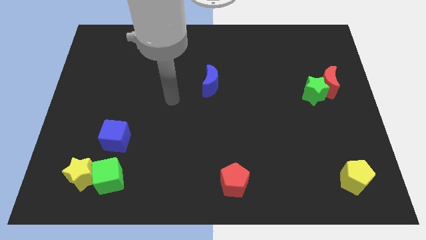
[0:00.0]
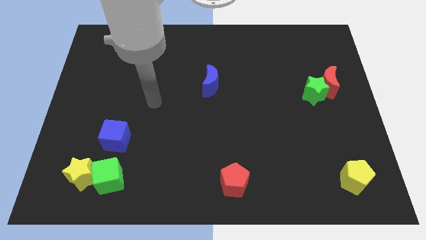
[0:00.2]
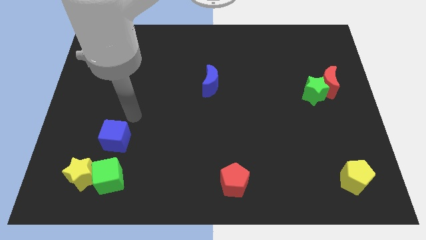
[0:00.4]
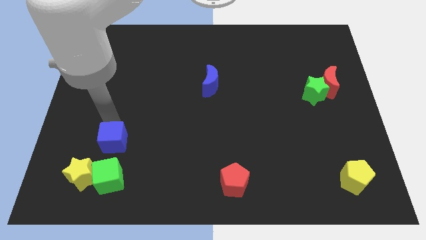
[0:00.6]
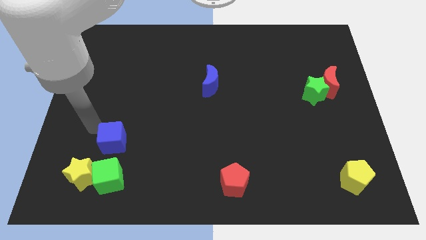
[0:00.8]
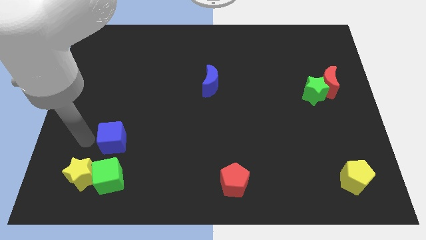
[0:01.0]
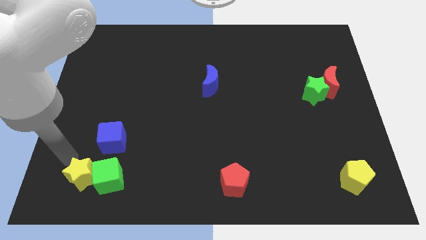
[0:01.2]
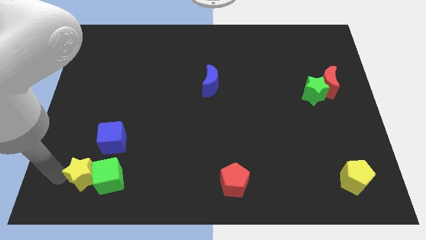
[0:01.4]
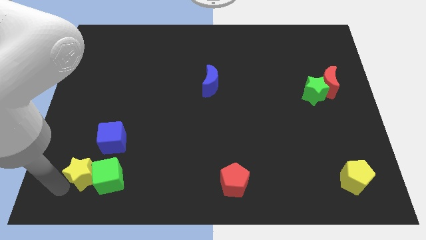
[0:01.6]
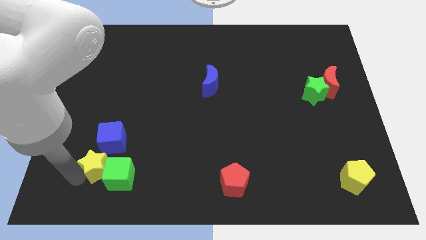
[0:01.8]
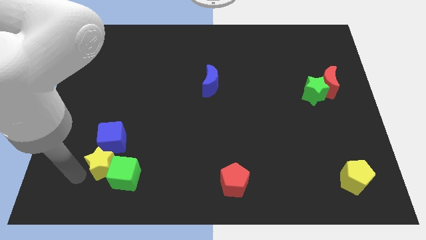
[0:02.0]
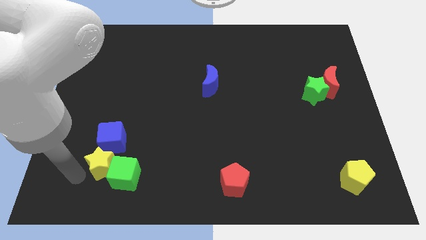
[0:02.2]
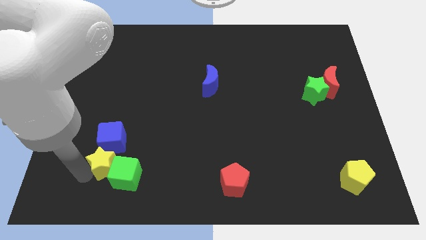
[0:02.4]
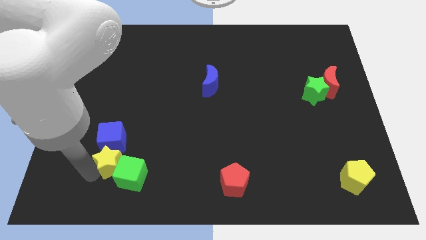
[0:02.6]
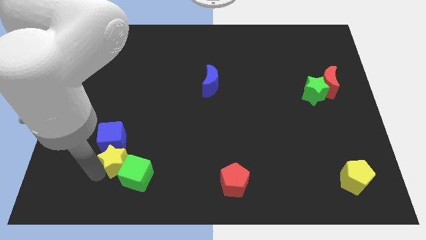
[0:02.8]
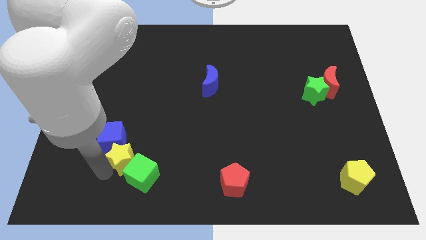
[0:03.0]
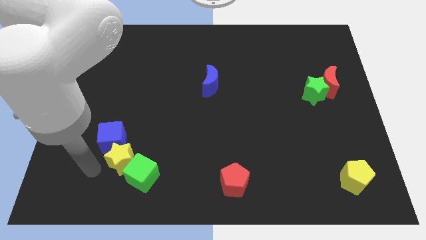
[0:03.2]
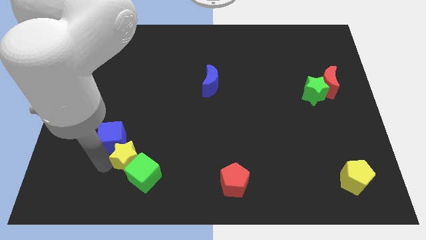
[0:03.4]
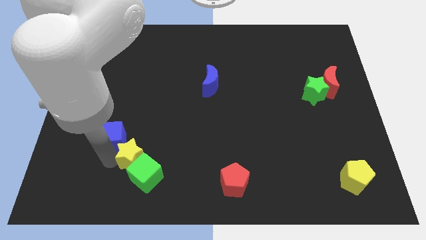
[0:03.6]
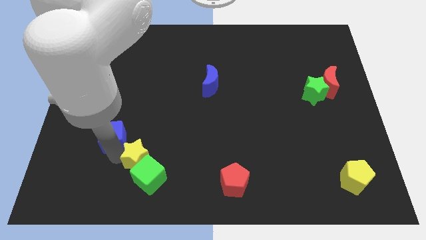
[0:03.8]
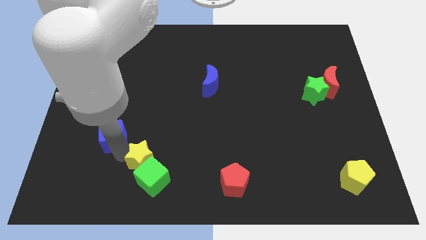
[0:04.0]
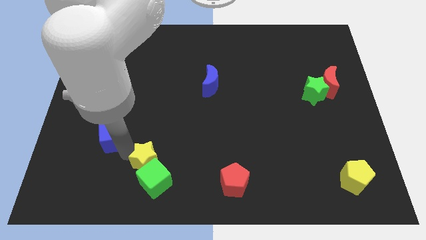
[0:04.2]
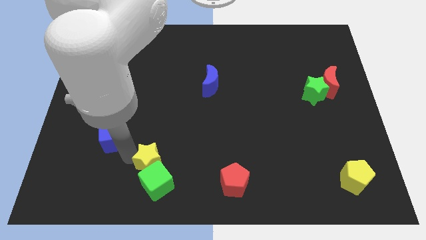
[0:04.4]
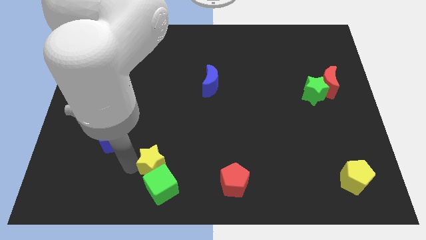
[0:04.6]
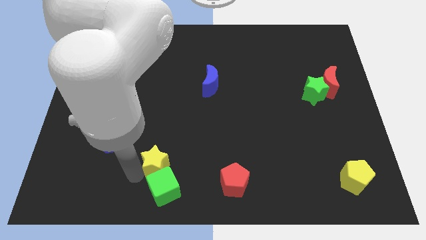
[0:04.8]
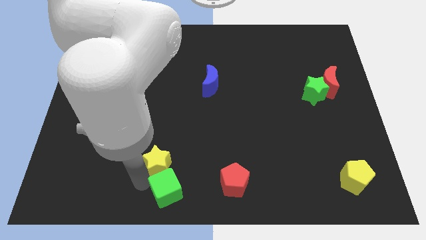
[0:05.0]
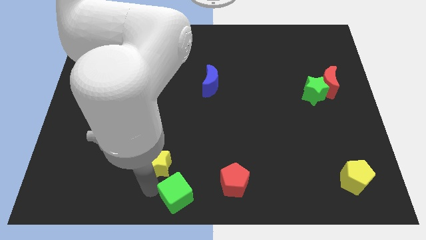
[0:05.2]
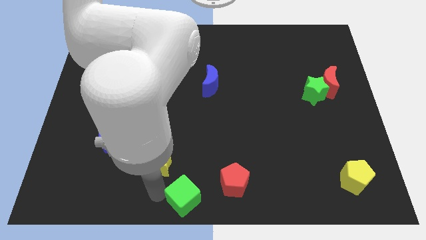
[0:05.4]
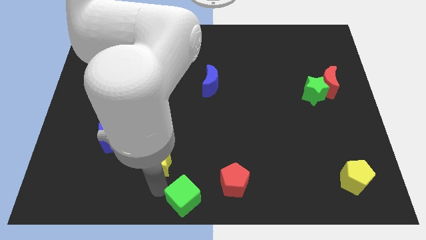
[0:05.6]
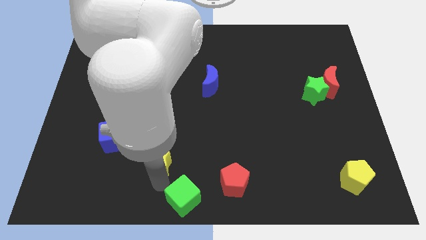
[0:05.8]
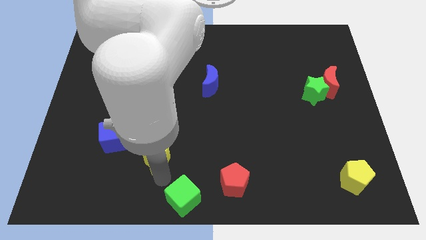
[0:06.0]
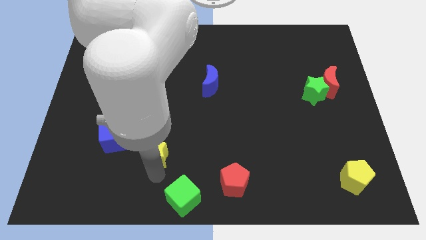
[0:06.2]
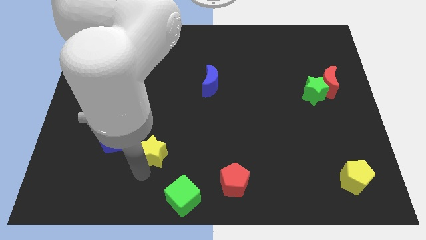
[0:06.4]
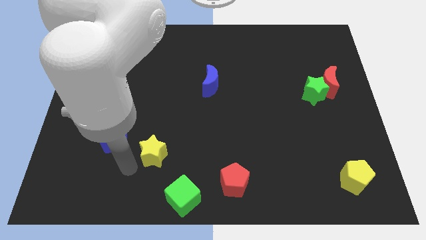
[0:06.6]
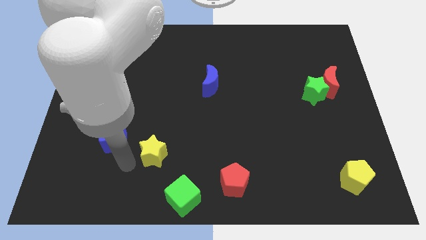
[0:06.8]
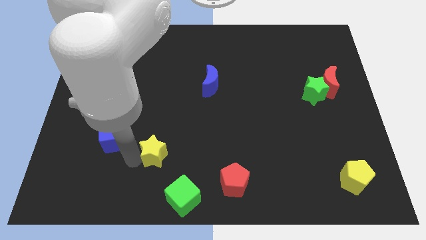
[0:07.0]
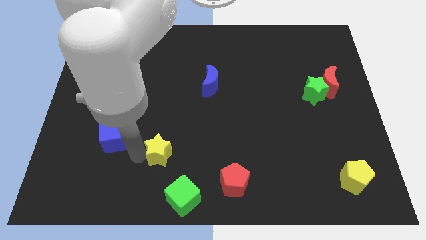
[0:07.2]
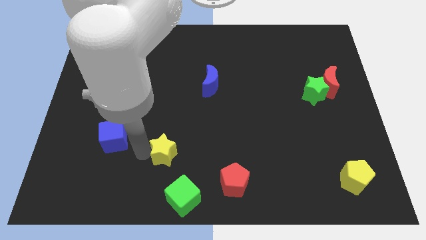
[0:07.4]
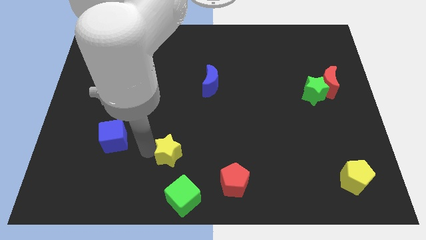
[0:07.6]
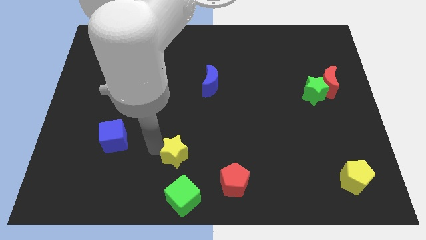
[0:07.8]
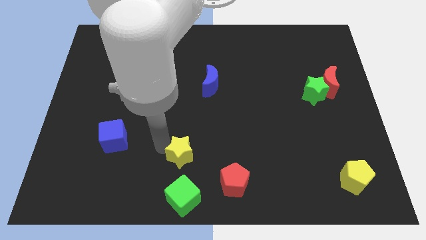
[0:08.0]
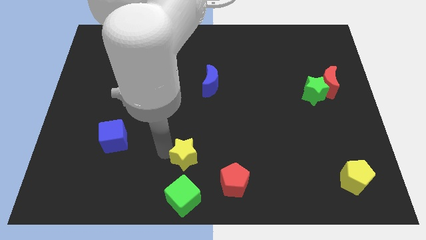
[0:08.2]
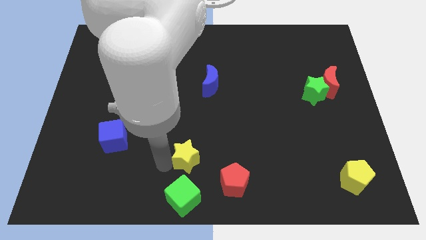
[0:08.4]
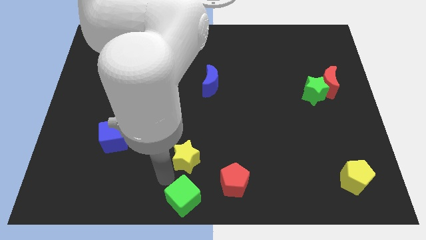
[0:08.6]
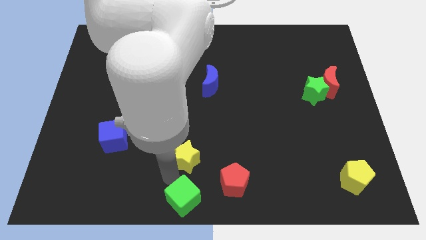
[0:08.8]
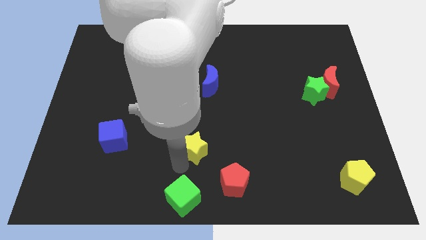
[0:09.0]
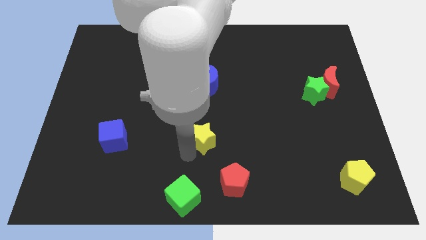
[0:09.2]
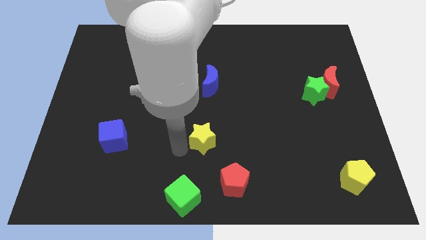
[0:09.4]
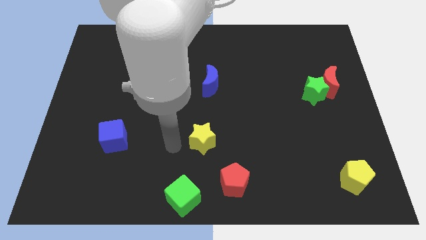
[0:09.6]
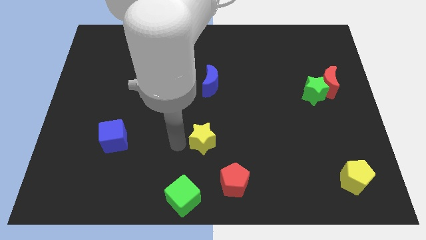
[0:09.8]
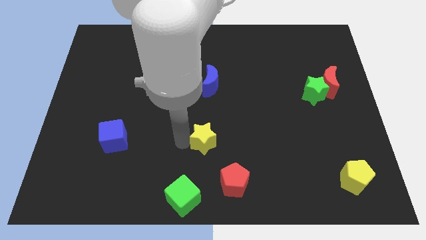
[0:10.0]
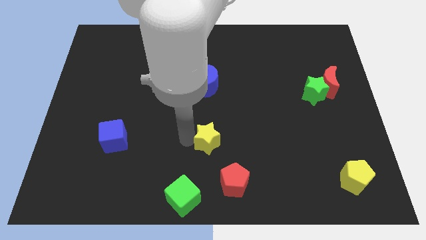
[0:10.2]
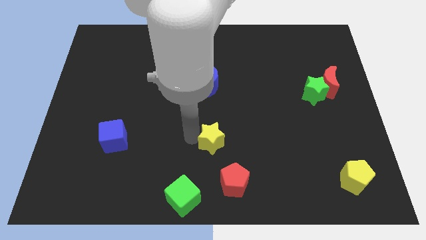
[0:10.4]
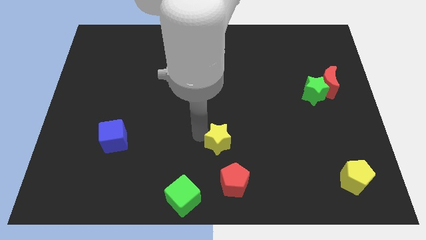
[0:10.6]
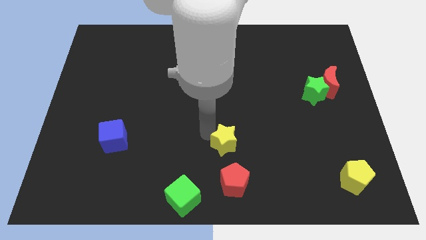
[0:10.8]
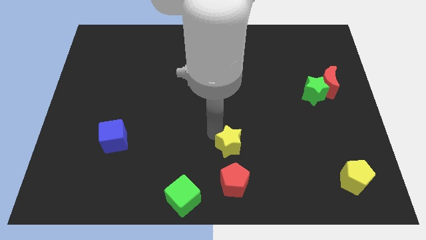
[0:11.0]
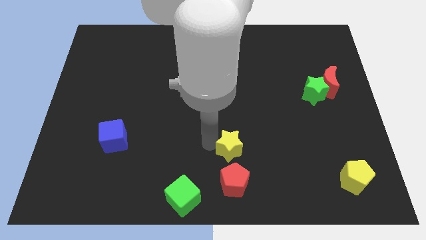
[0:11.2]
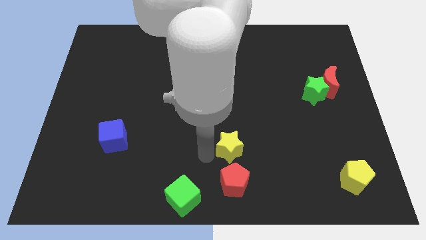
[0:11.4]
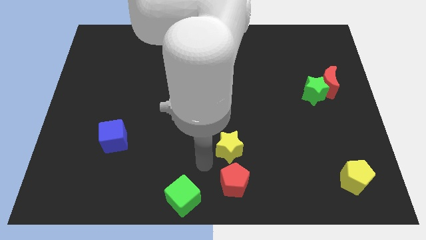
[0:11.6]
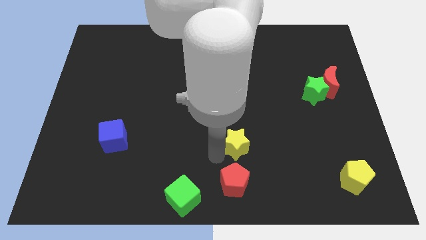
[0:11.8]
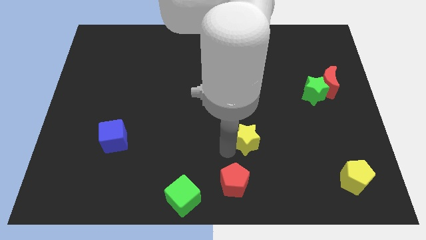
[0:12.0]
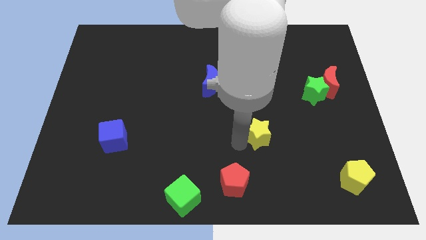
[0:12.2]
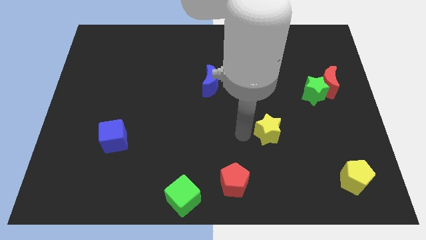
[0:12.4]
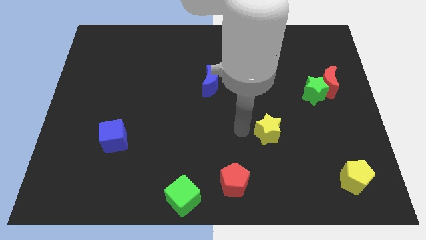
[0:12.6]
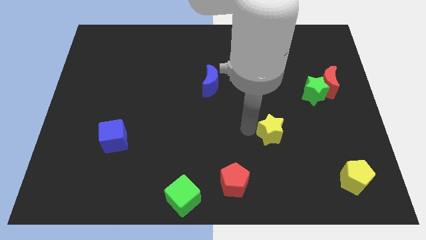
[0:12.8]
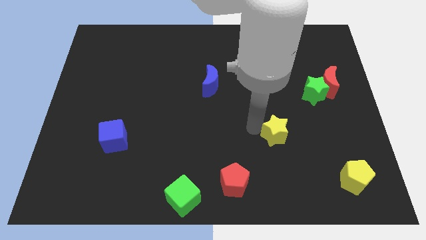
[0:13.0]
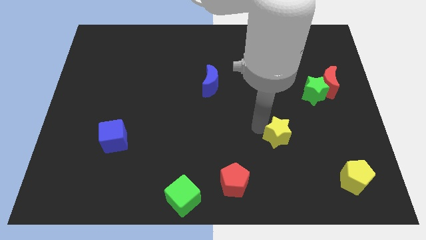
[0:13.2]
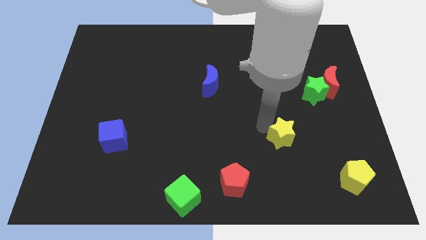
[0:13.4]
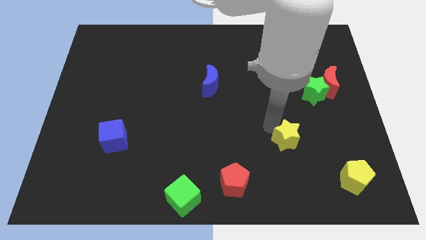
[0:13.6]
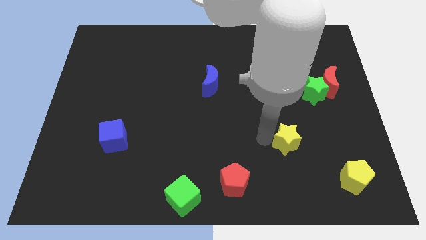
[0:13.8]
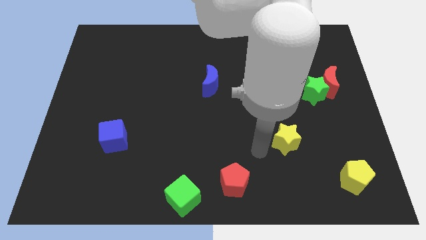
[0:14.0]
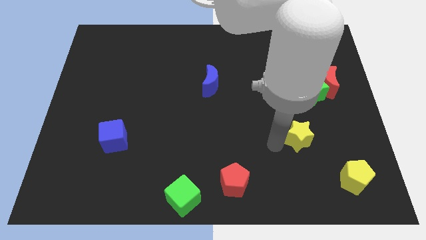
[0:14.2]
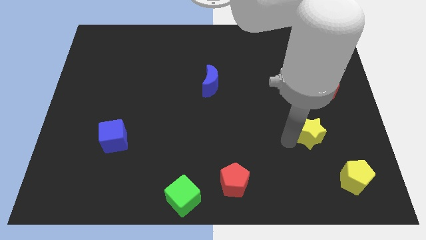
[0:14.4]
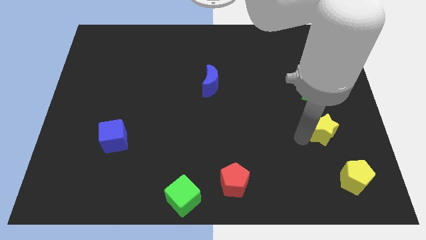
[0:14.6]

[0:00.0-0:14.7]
move the yellow star below the red moon
